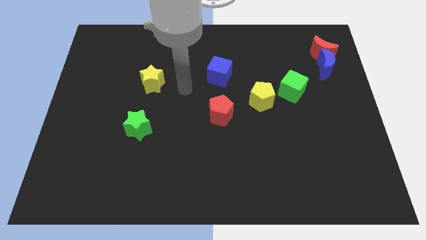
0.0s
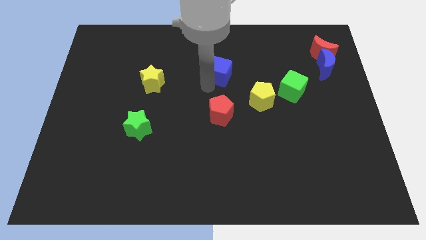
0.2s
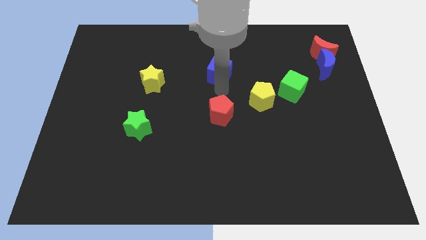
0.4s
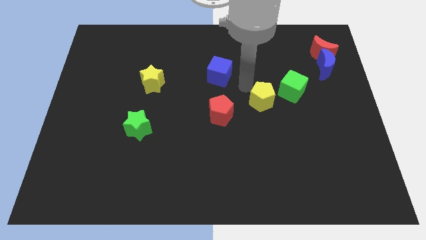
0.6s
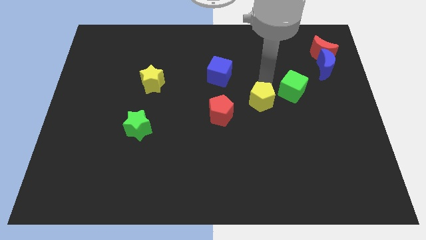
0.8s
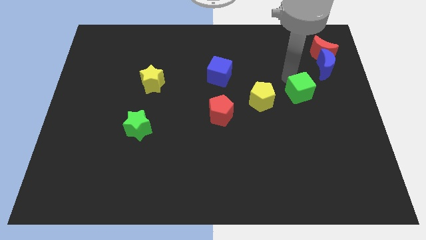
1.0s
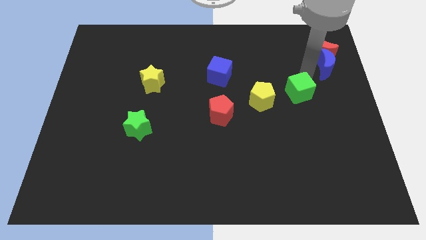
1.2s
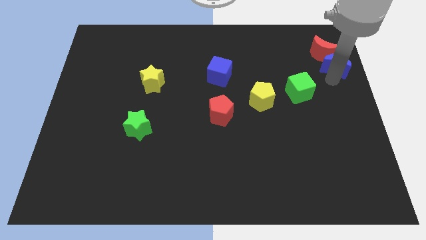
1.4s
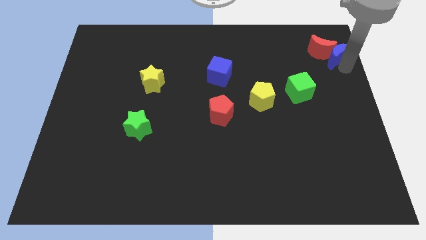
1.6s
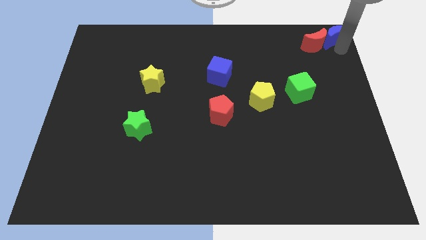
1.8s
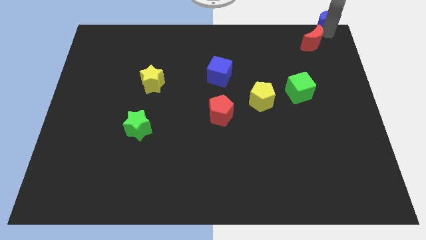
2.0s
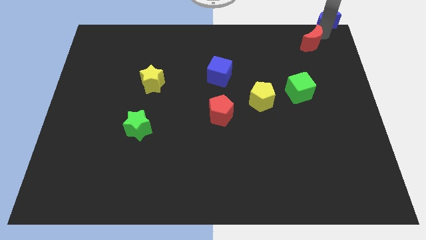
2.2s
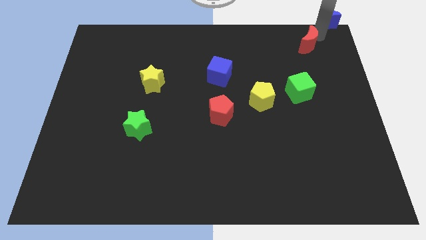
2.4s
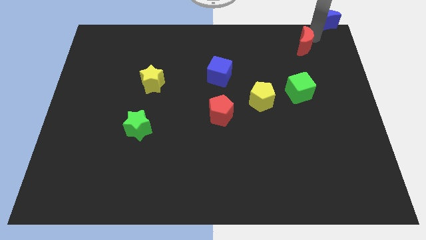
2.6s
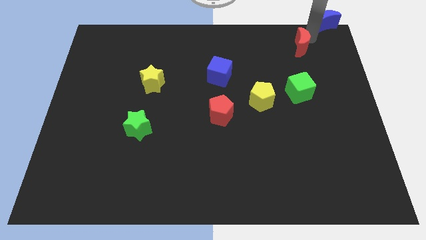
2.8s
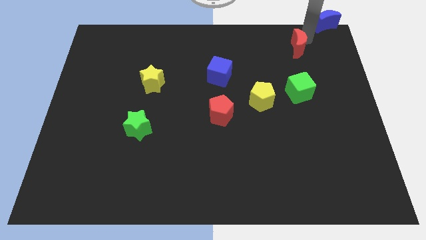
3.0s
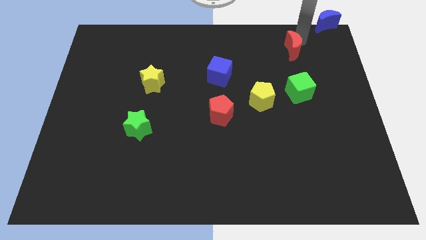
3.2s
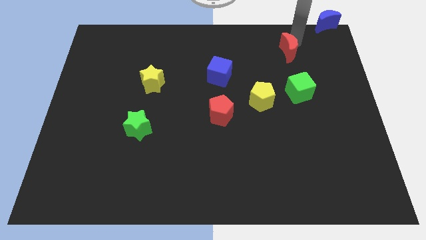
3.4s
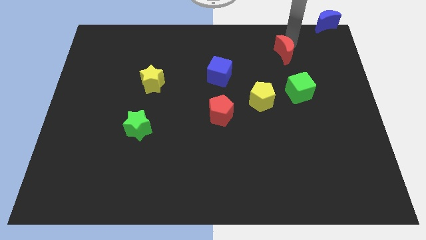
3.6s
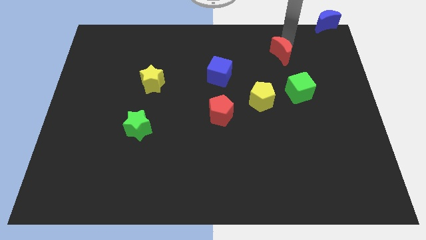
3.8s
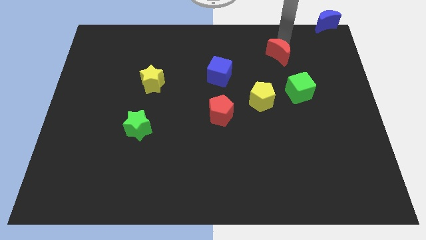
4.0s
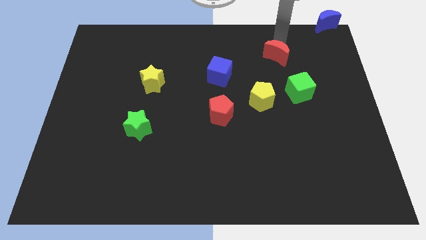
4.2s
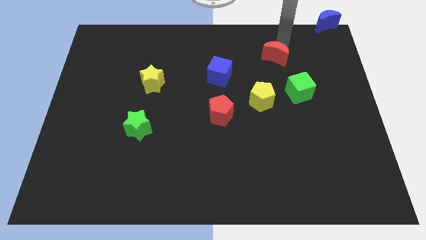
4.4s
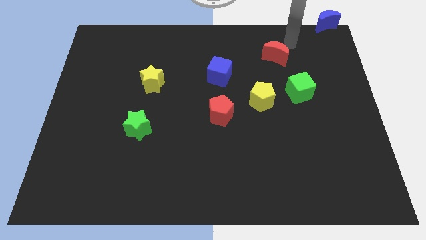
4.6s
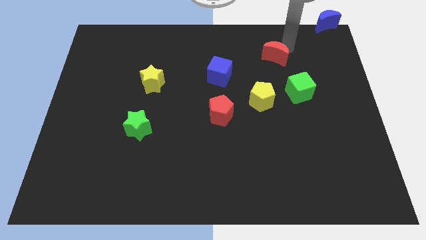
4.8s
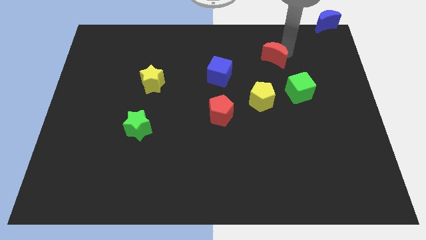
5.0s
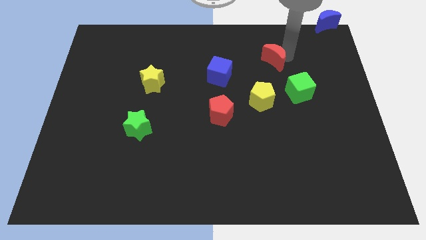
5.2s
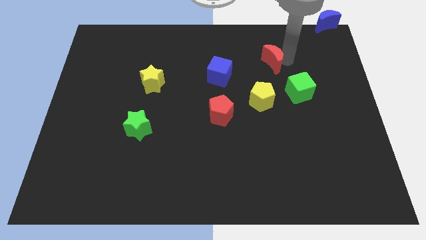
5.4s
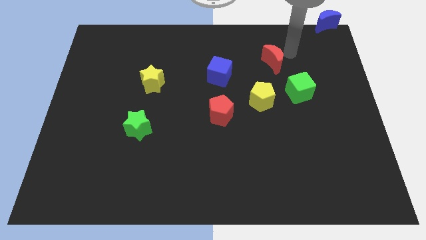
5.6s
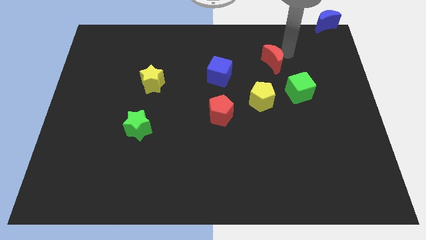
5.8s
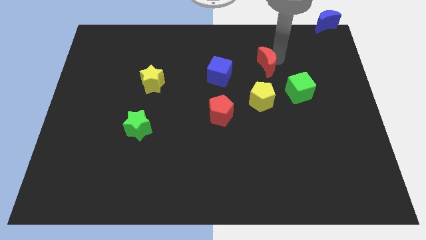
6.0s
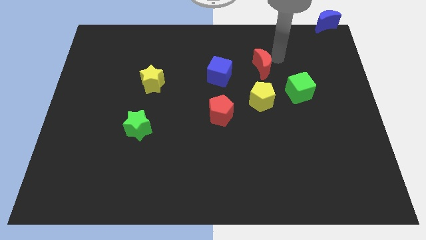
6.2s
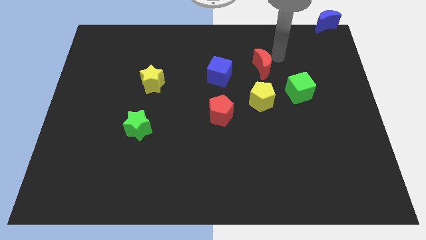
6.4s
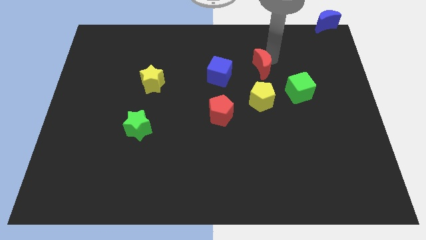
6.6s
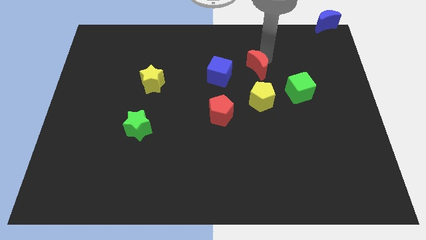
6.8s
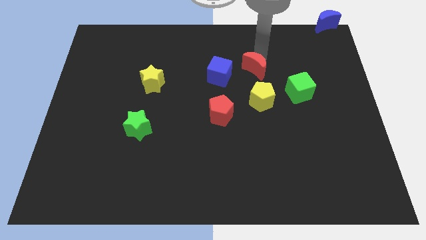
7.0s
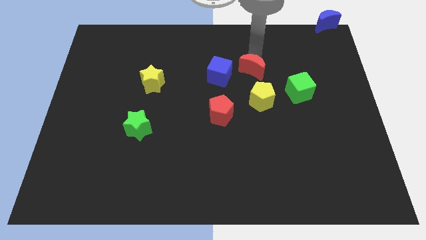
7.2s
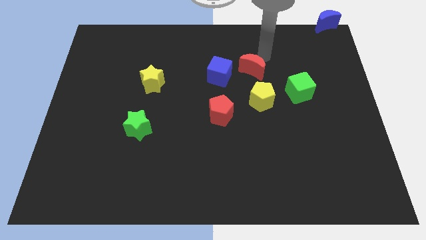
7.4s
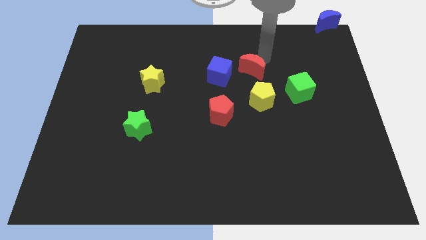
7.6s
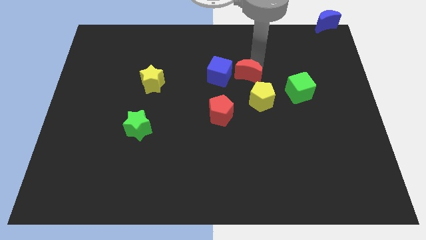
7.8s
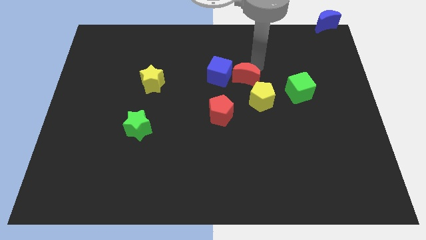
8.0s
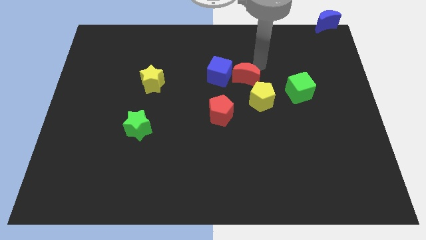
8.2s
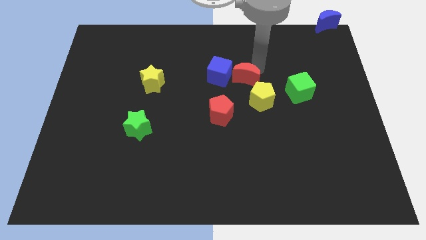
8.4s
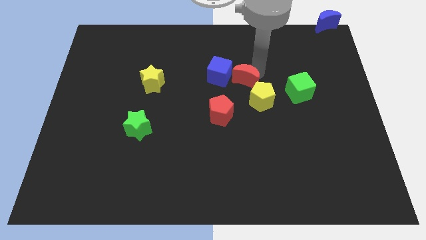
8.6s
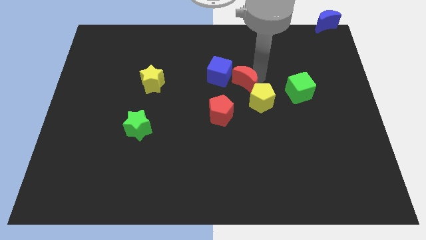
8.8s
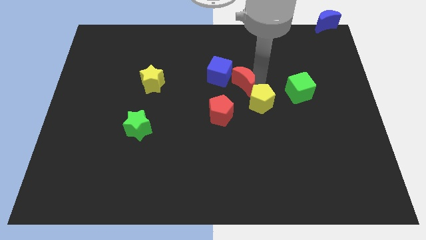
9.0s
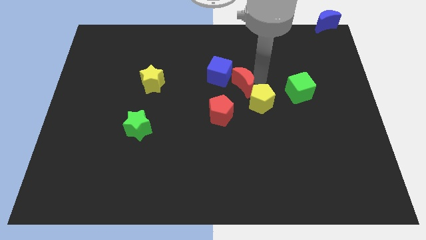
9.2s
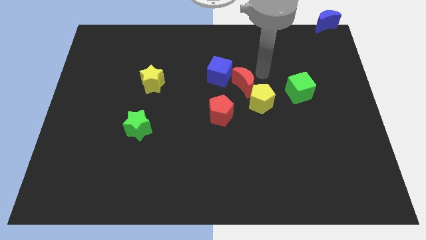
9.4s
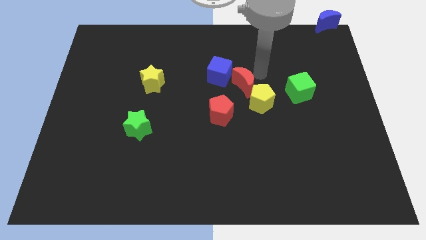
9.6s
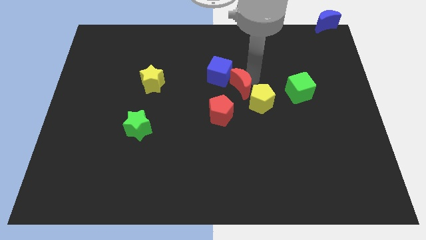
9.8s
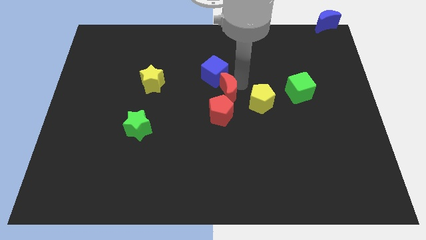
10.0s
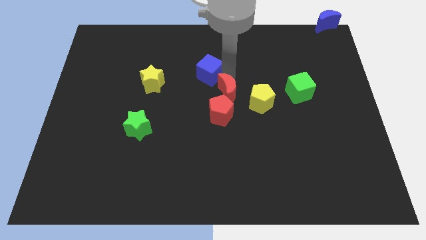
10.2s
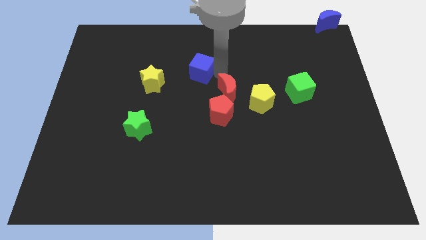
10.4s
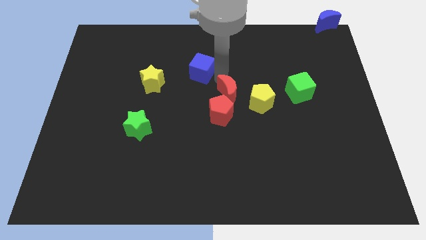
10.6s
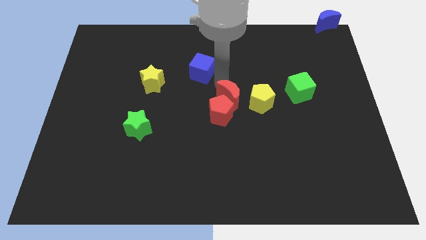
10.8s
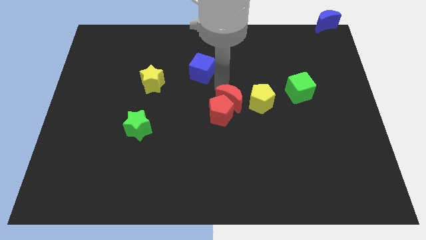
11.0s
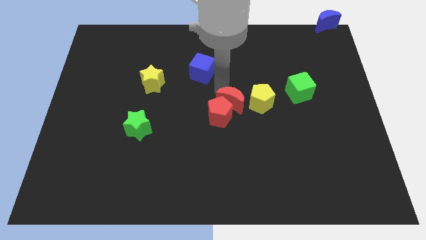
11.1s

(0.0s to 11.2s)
move the red moon to the bottom left side of the yellow pentagon

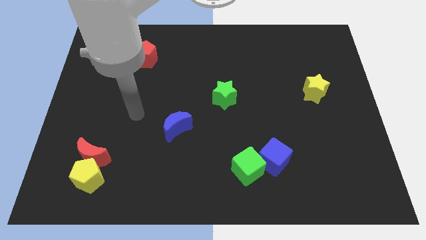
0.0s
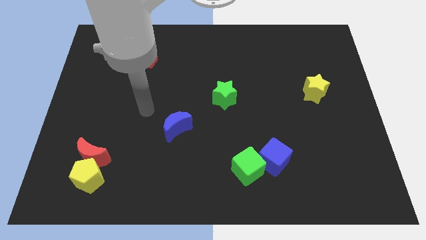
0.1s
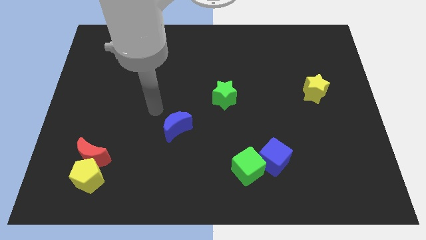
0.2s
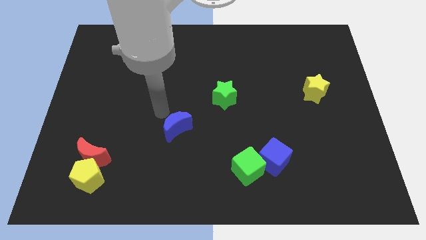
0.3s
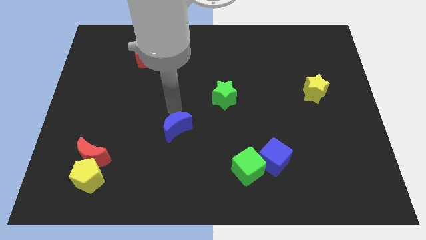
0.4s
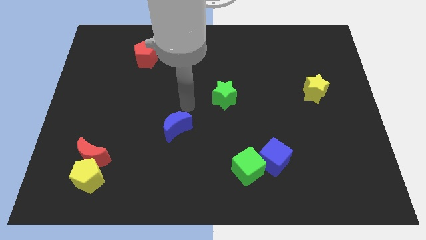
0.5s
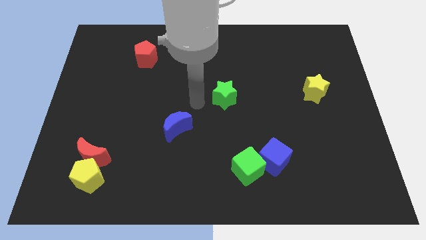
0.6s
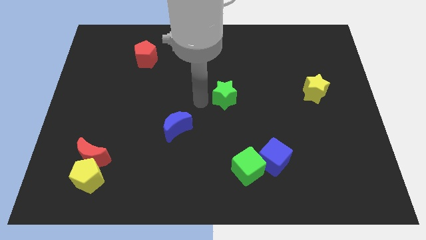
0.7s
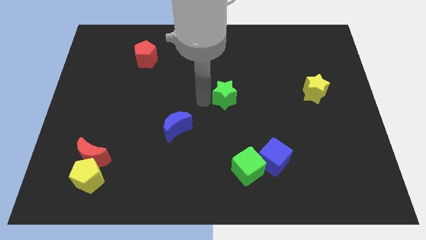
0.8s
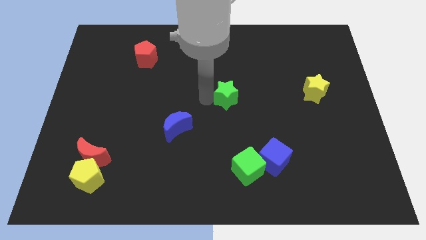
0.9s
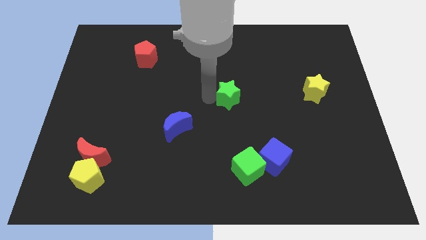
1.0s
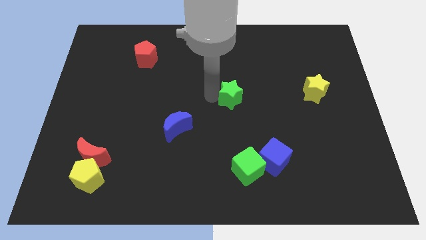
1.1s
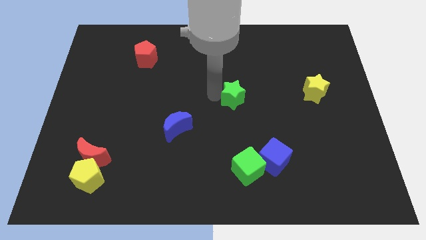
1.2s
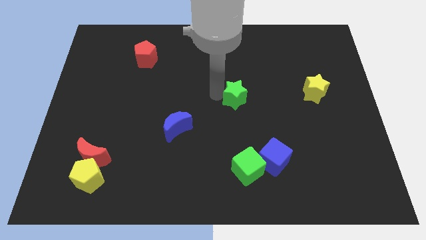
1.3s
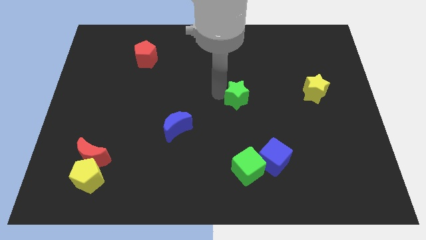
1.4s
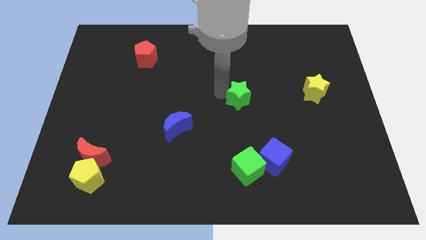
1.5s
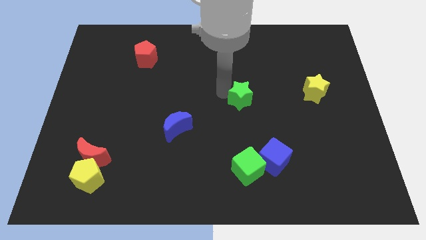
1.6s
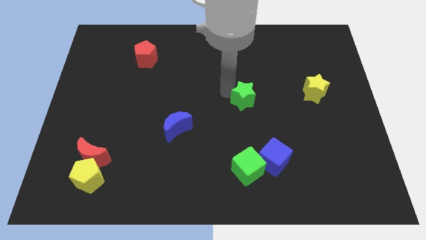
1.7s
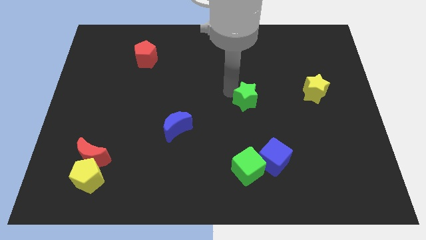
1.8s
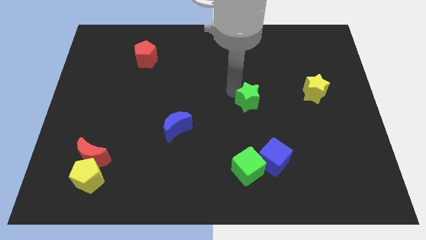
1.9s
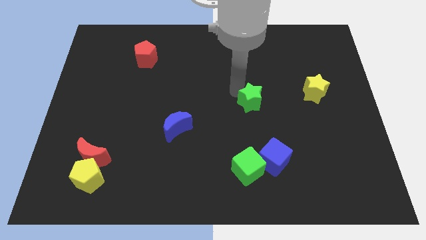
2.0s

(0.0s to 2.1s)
push the green star just left of the yellow star
